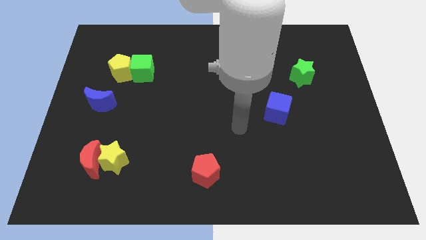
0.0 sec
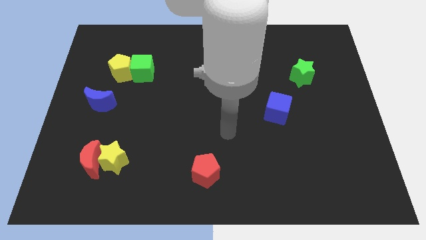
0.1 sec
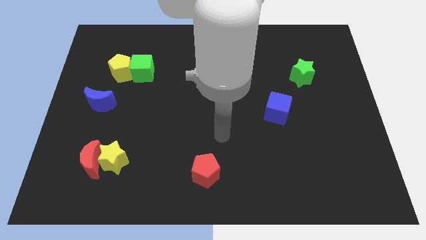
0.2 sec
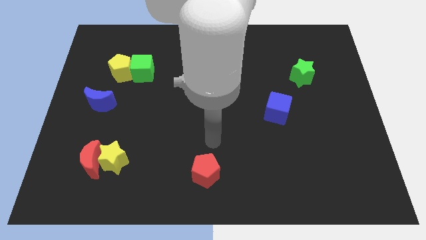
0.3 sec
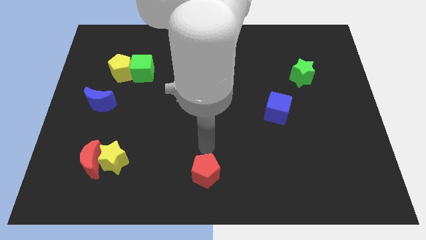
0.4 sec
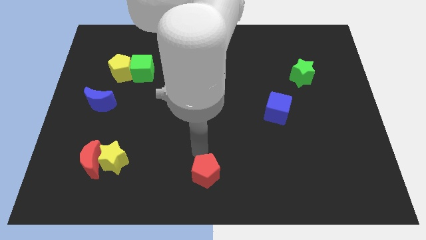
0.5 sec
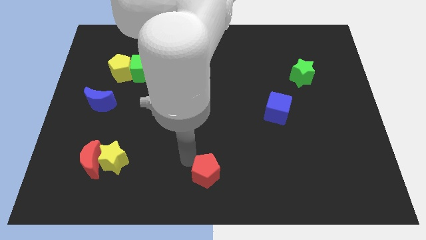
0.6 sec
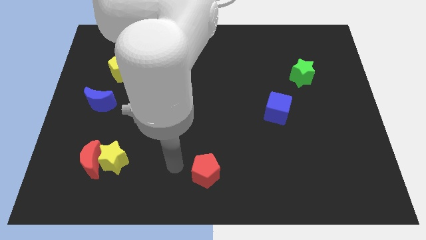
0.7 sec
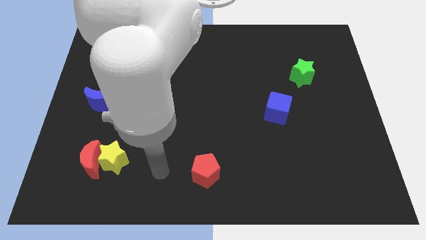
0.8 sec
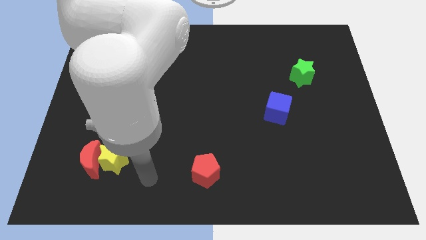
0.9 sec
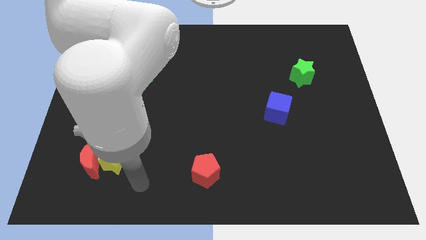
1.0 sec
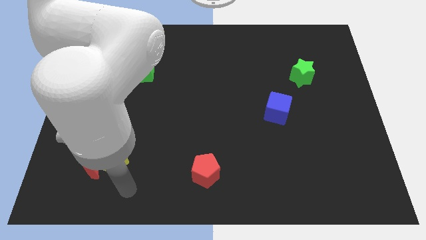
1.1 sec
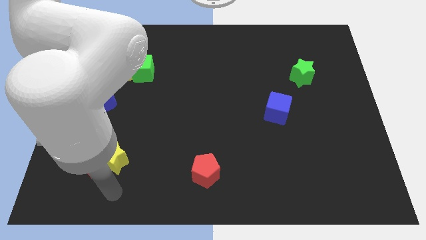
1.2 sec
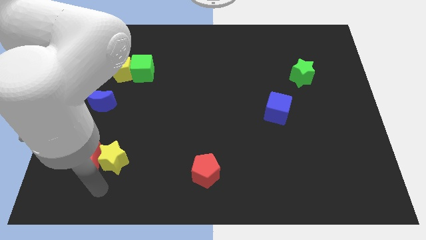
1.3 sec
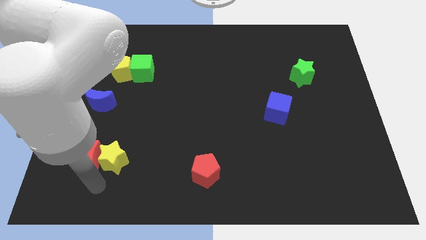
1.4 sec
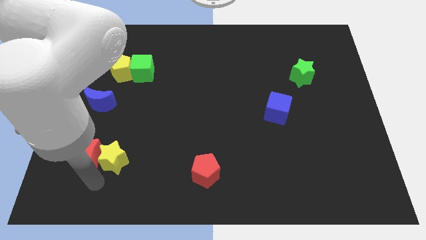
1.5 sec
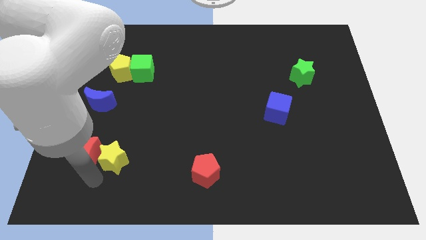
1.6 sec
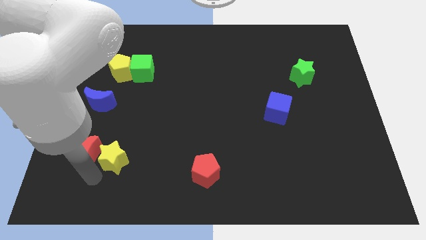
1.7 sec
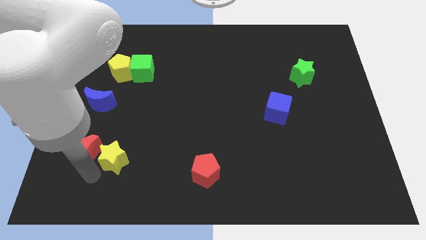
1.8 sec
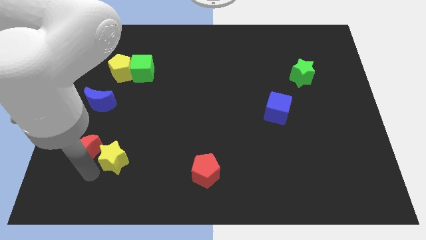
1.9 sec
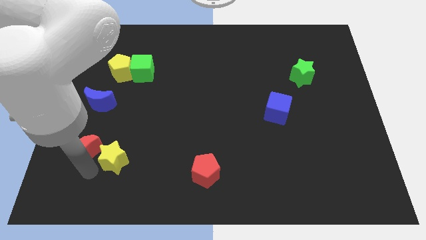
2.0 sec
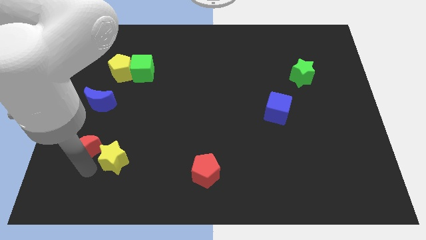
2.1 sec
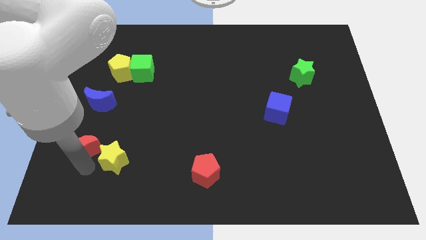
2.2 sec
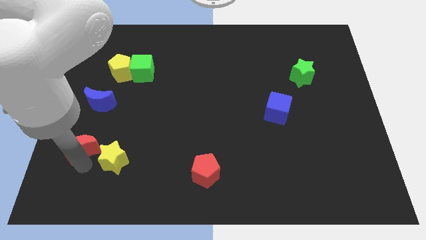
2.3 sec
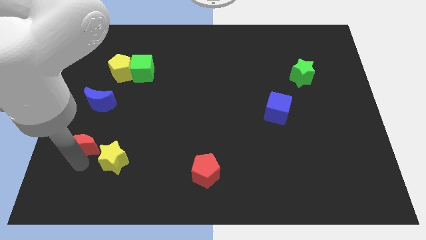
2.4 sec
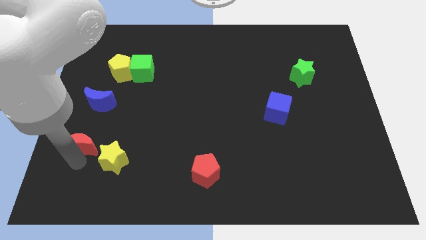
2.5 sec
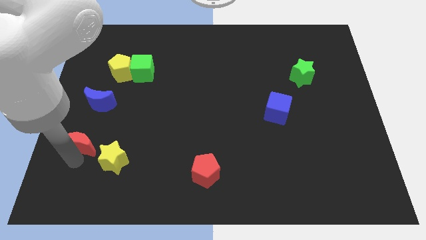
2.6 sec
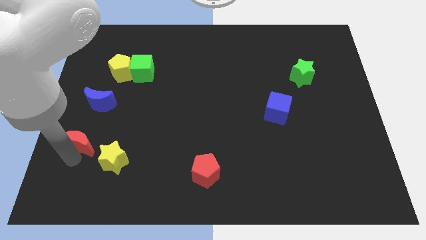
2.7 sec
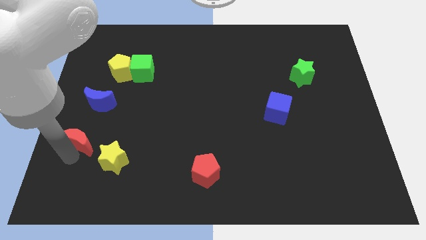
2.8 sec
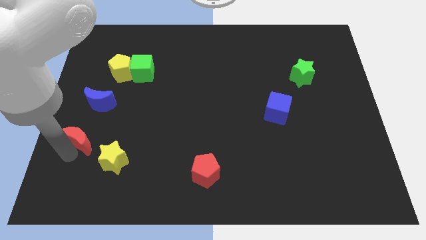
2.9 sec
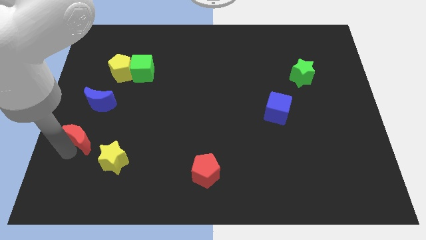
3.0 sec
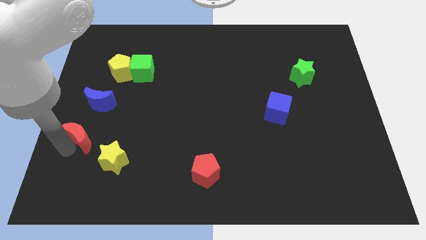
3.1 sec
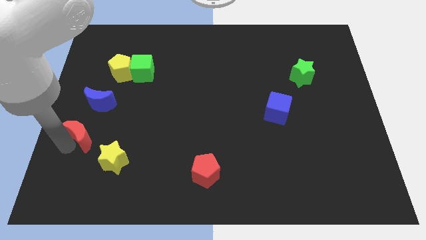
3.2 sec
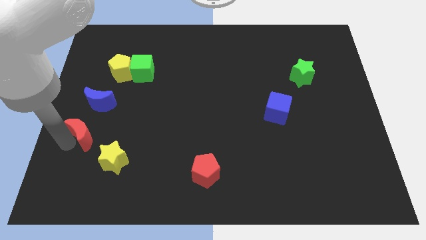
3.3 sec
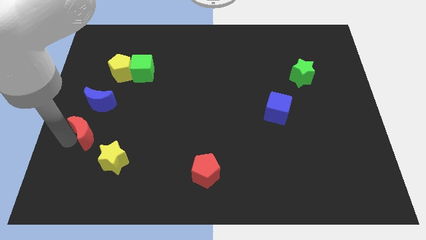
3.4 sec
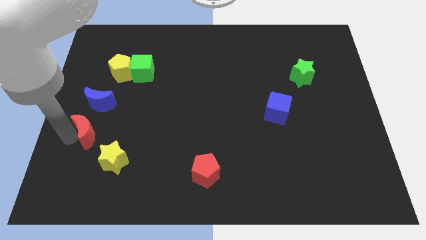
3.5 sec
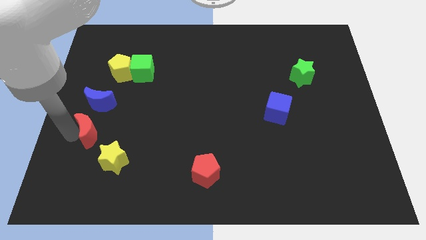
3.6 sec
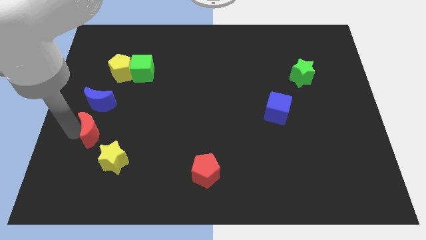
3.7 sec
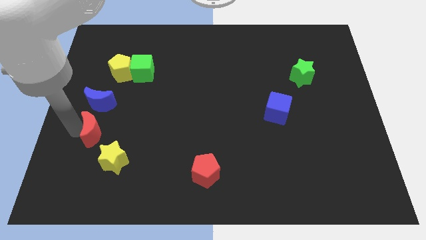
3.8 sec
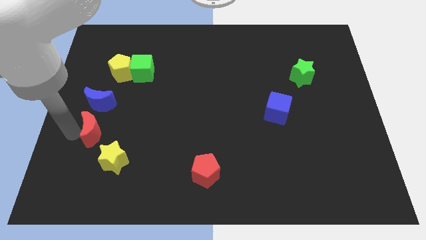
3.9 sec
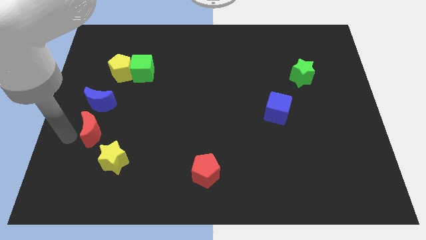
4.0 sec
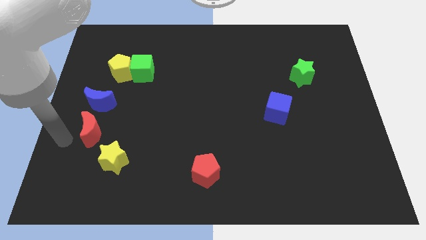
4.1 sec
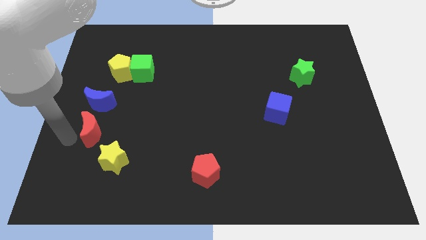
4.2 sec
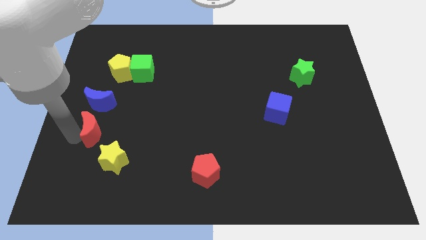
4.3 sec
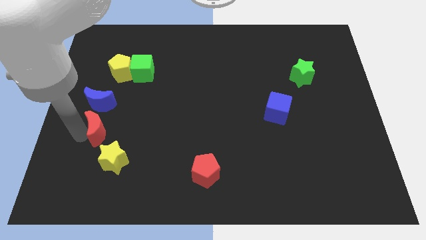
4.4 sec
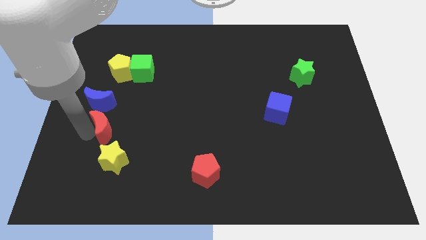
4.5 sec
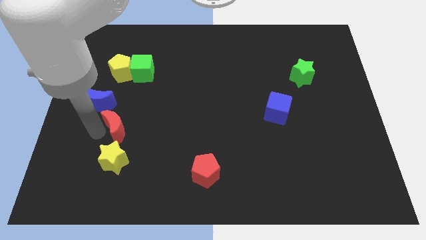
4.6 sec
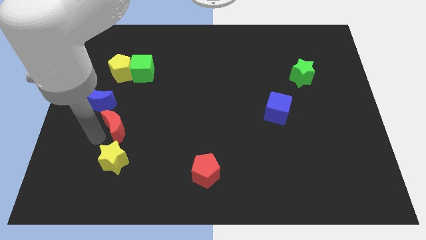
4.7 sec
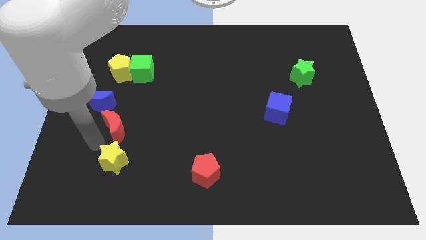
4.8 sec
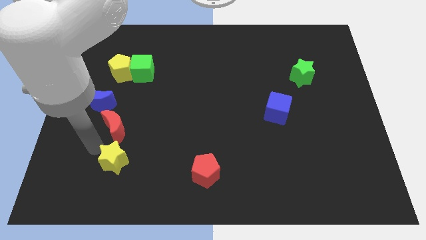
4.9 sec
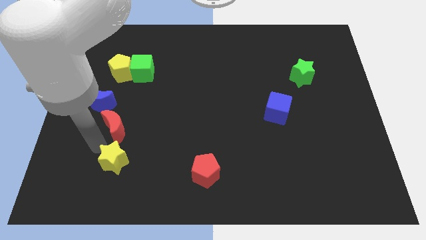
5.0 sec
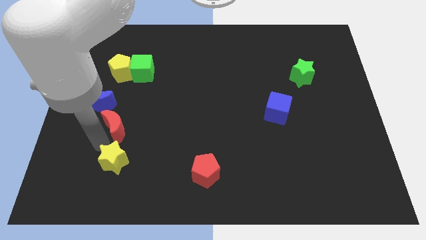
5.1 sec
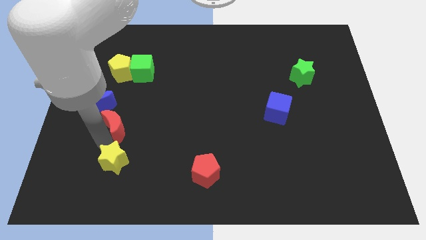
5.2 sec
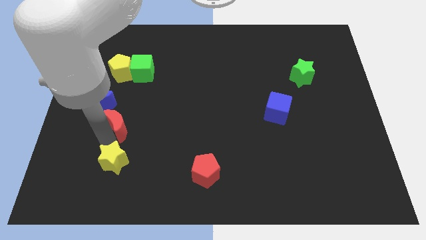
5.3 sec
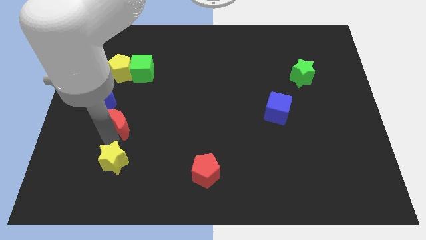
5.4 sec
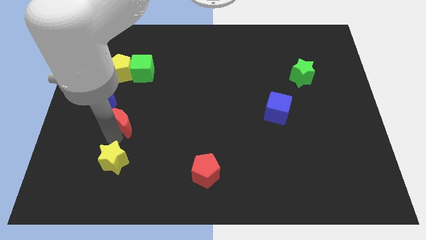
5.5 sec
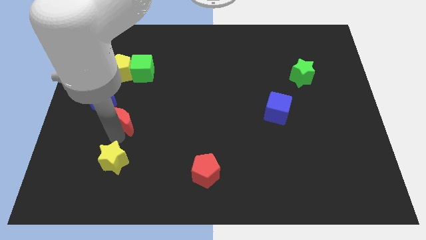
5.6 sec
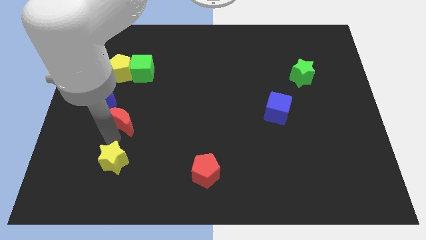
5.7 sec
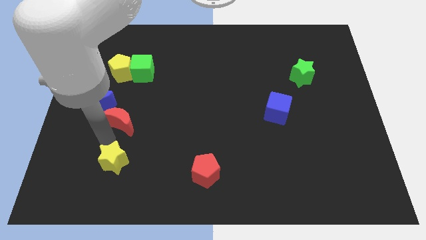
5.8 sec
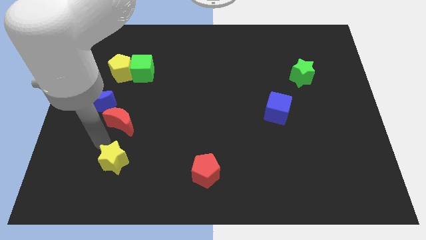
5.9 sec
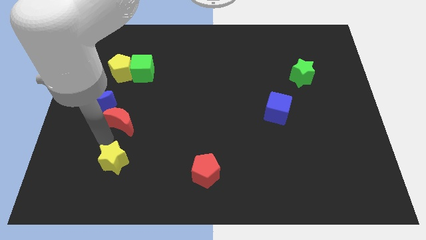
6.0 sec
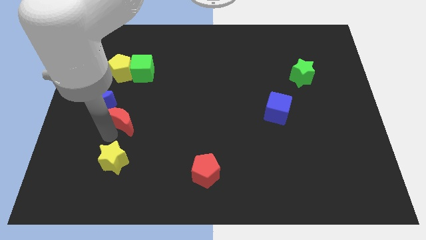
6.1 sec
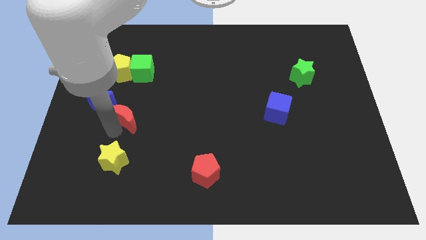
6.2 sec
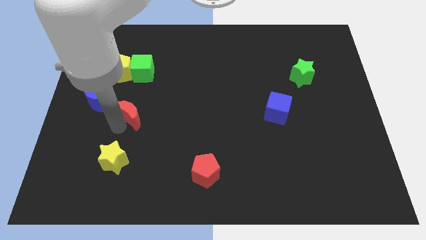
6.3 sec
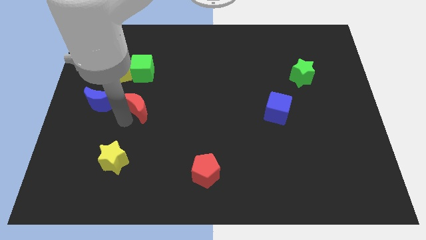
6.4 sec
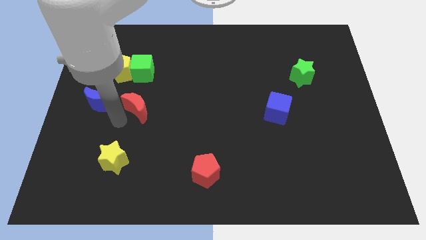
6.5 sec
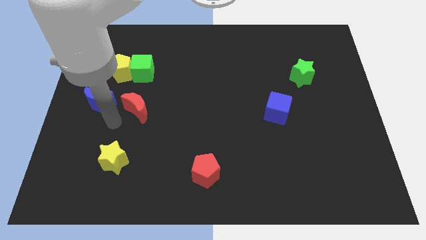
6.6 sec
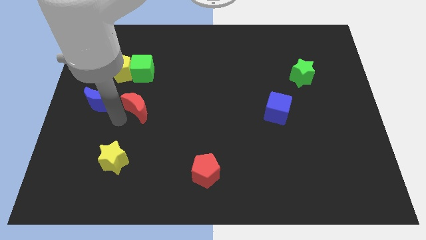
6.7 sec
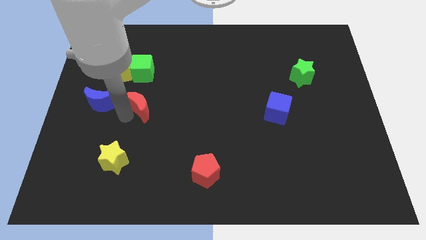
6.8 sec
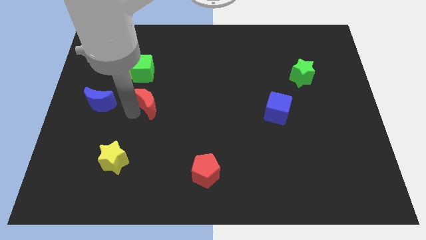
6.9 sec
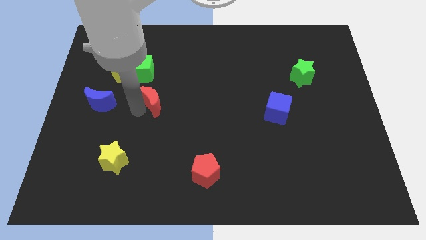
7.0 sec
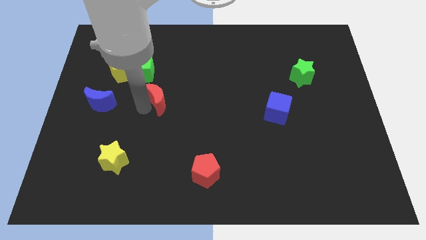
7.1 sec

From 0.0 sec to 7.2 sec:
slide the red moon upwards and then to the right

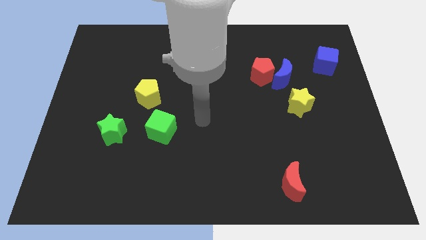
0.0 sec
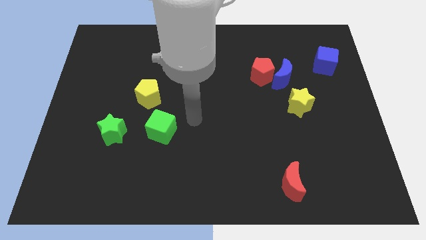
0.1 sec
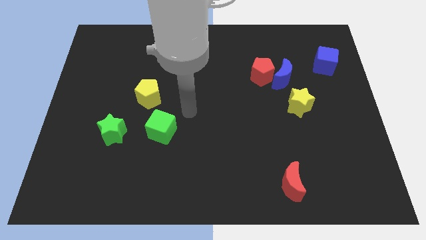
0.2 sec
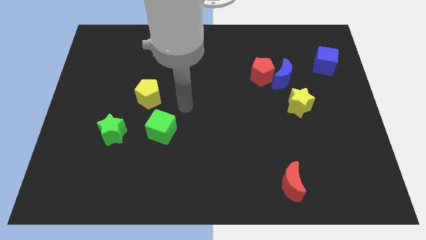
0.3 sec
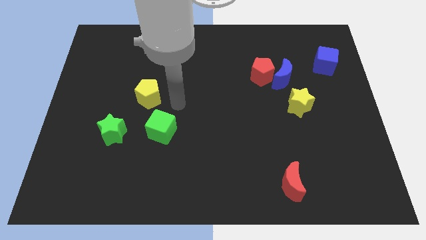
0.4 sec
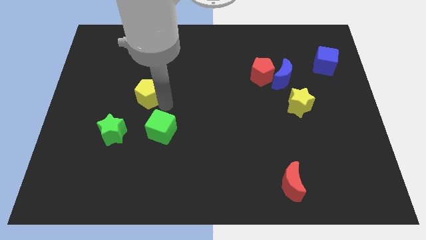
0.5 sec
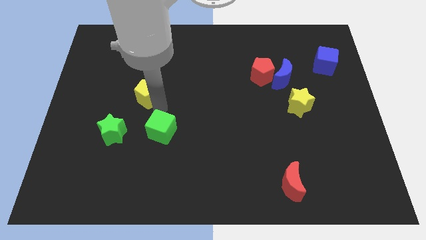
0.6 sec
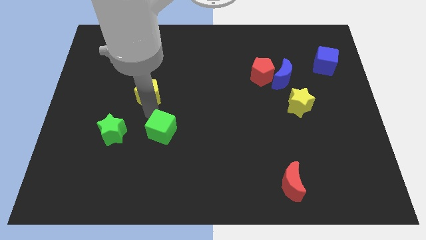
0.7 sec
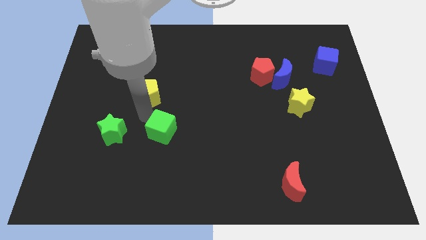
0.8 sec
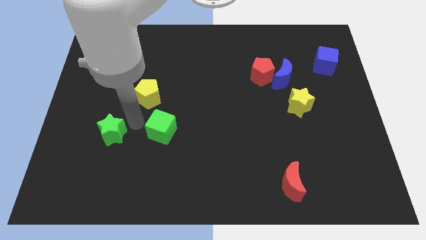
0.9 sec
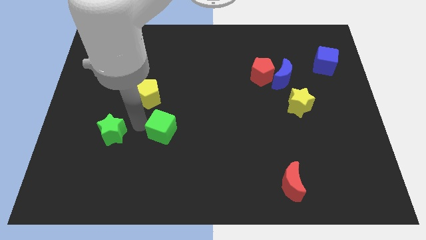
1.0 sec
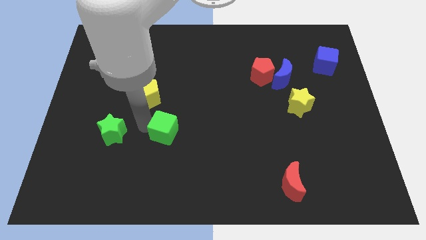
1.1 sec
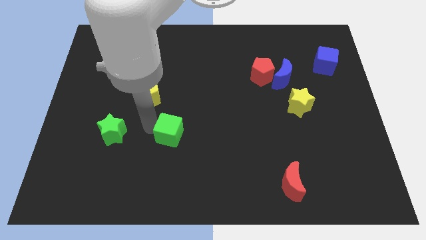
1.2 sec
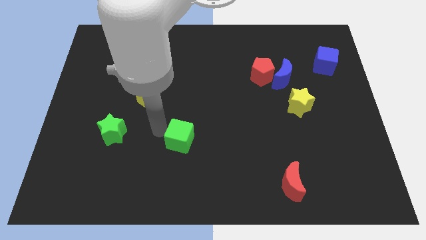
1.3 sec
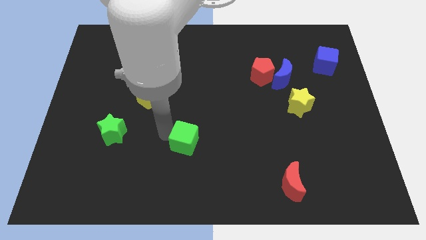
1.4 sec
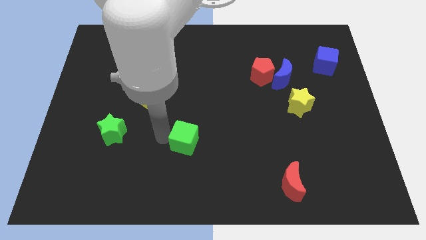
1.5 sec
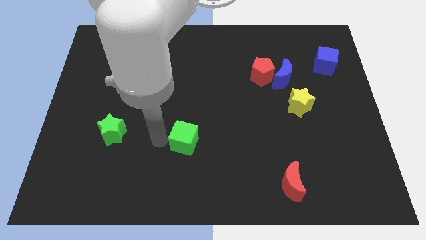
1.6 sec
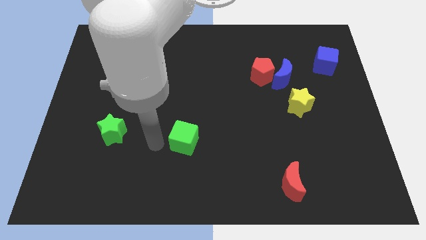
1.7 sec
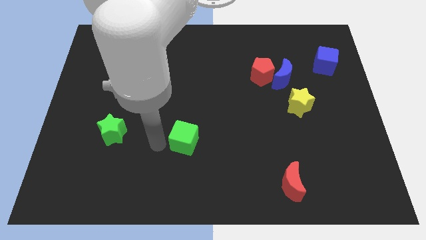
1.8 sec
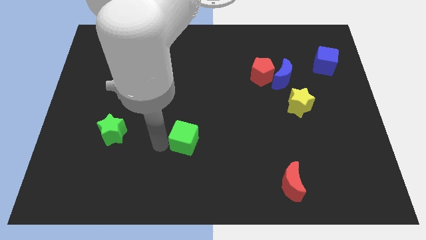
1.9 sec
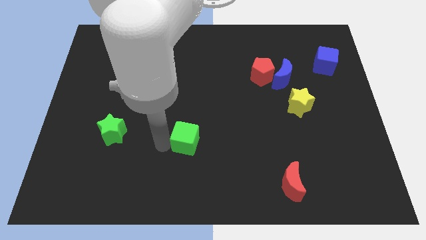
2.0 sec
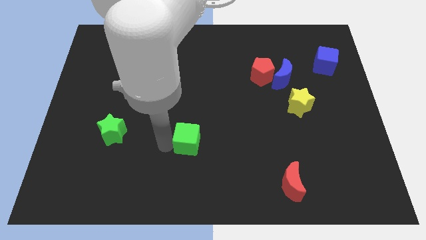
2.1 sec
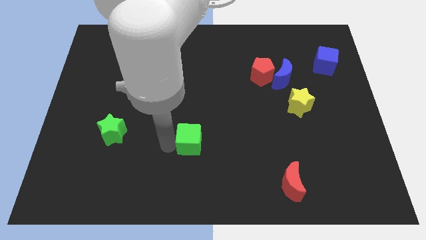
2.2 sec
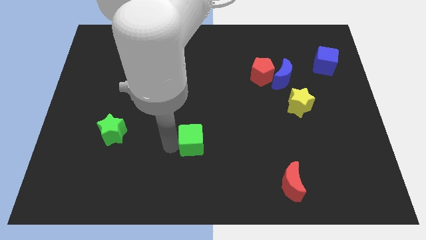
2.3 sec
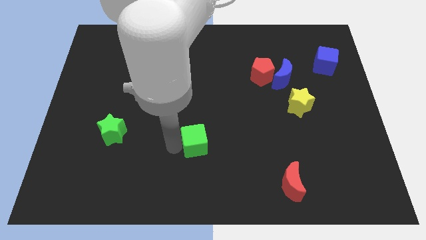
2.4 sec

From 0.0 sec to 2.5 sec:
slightly slide the green cube to the right
